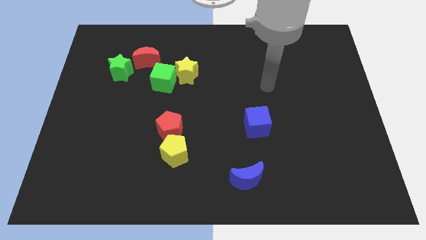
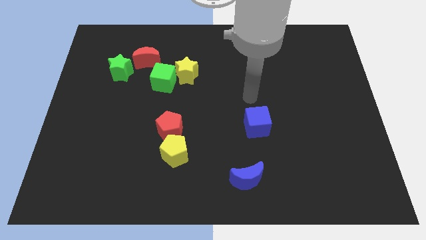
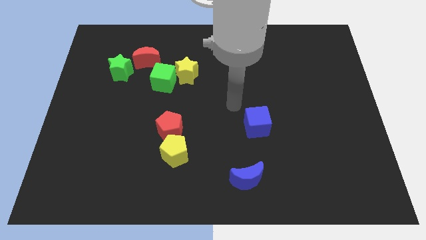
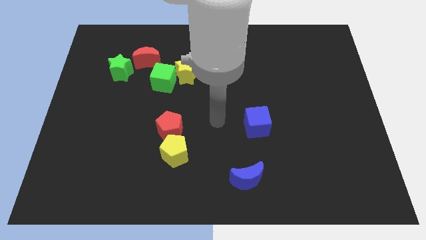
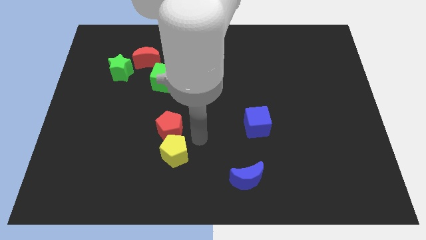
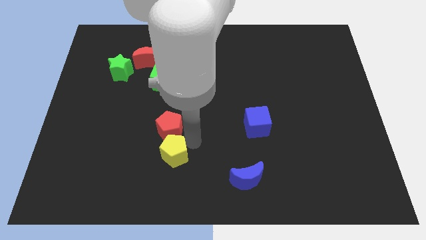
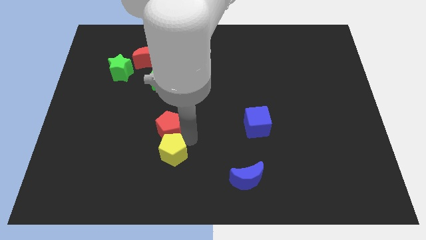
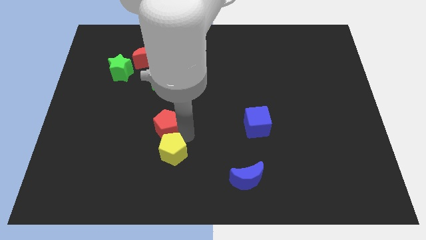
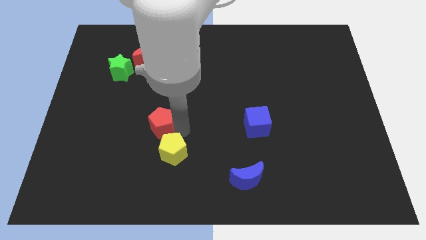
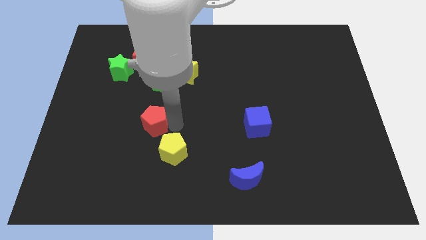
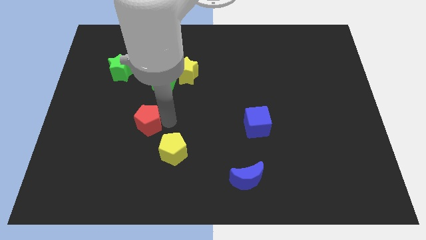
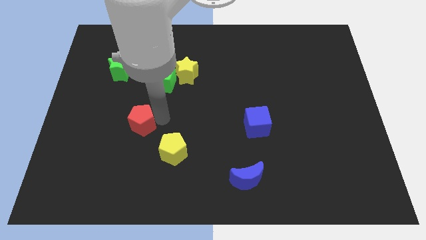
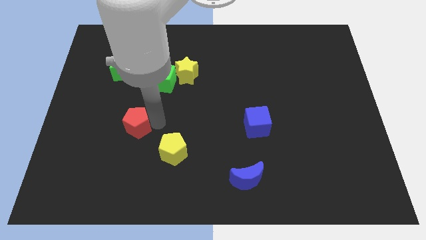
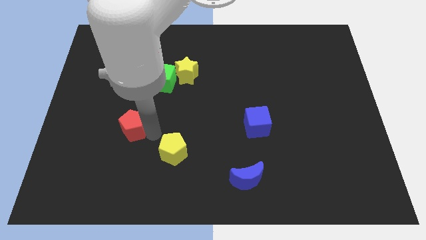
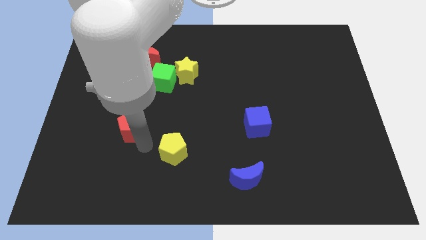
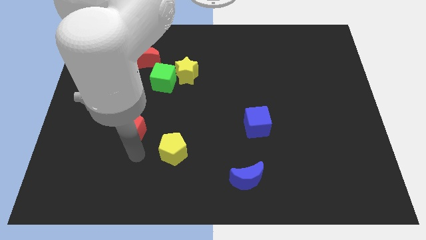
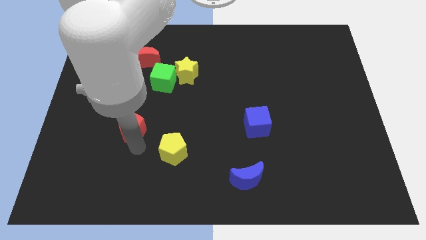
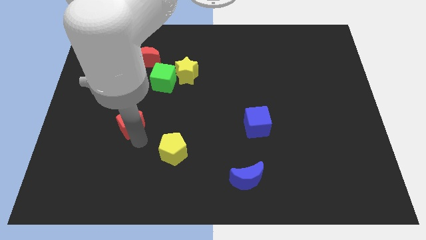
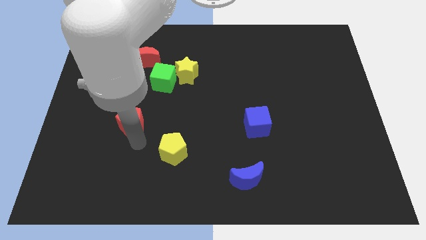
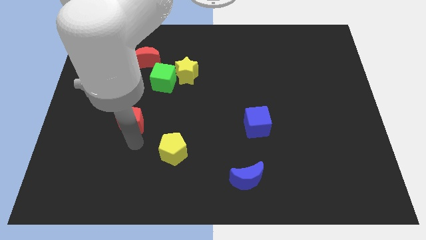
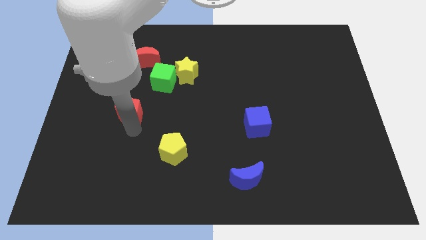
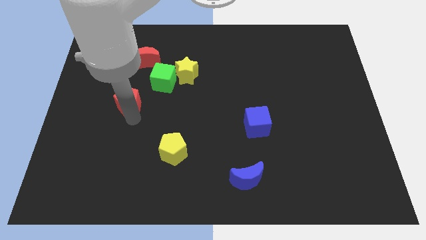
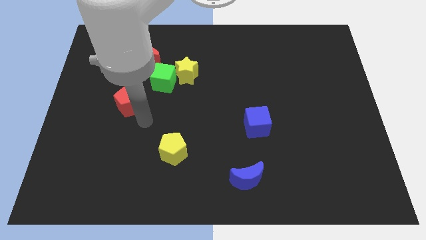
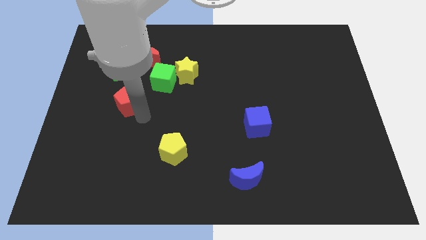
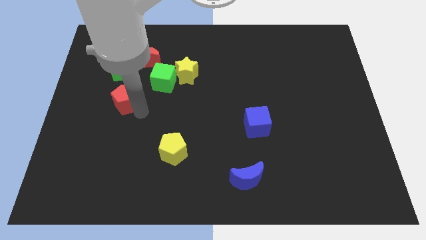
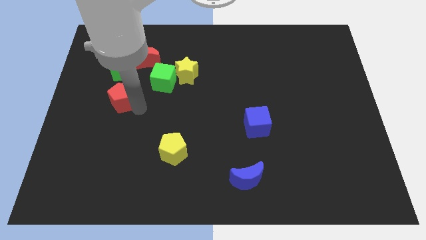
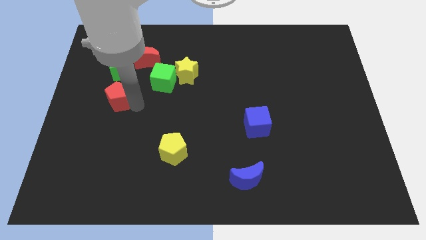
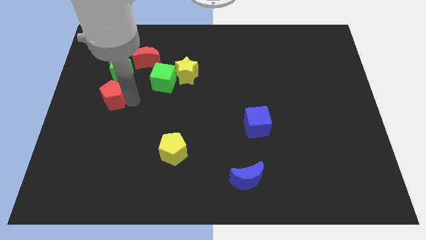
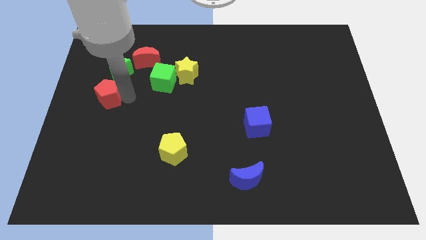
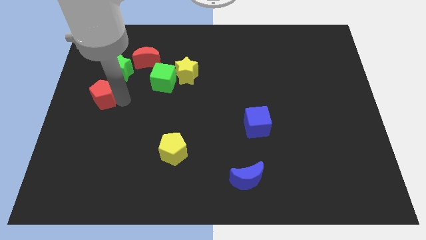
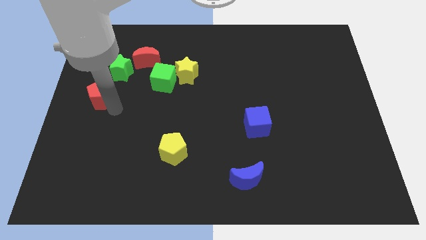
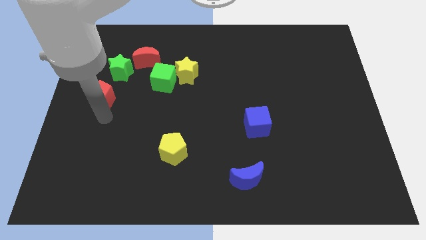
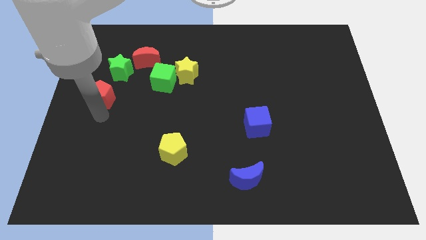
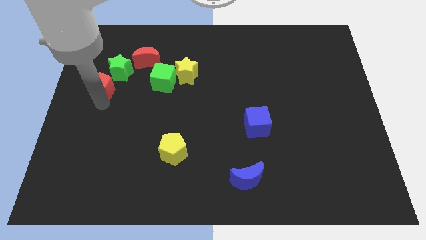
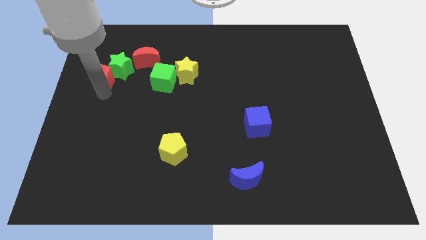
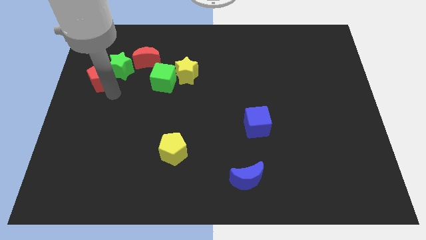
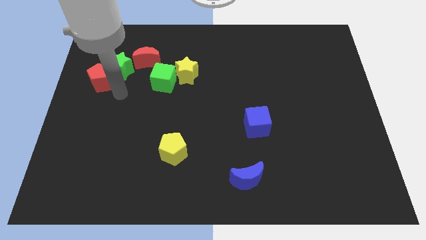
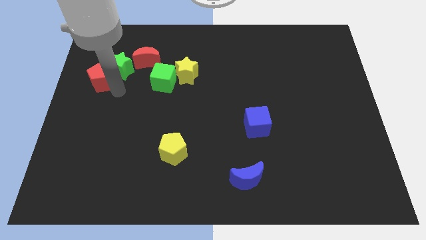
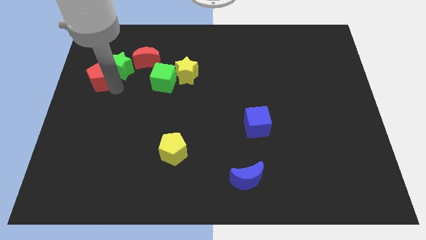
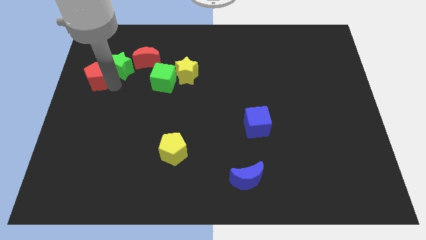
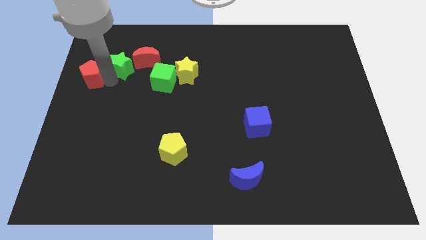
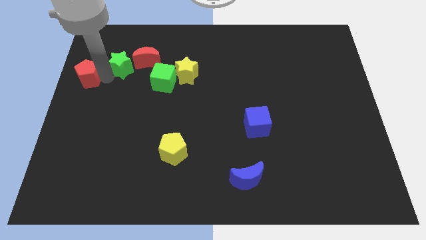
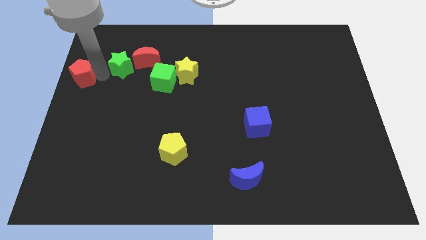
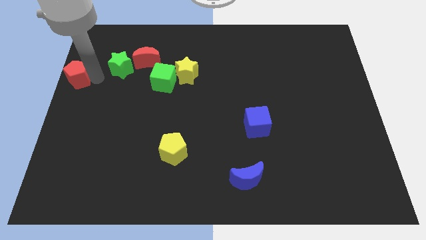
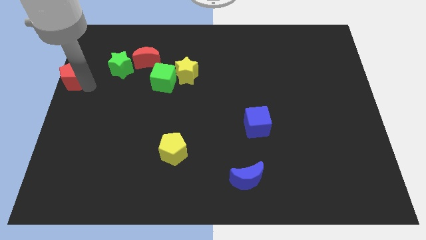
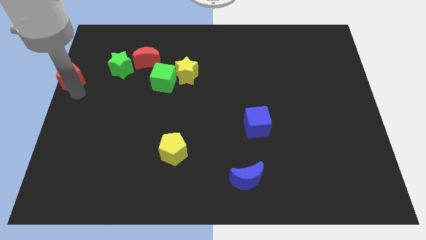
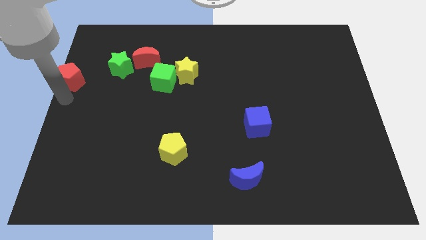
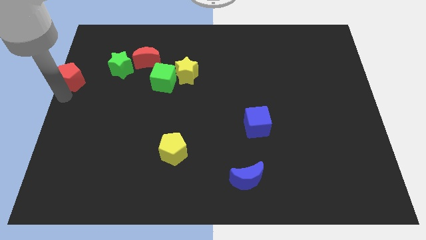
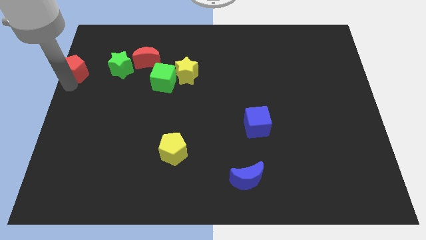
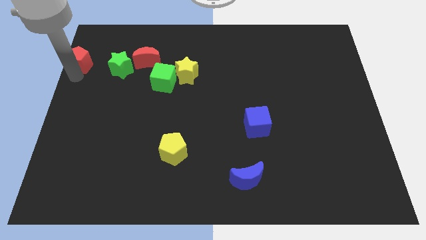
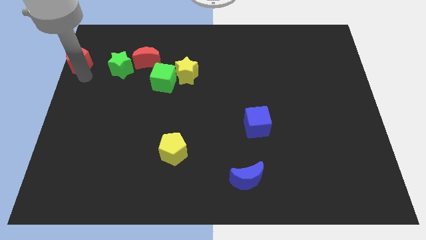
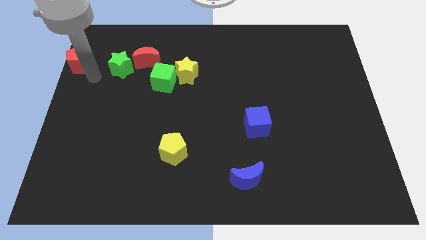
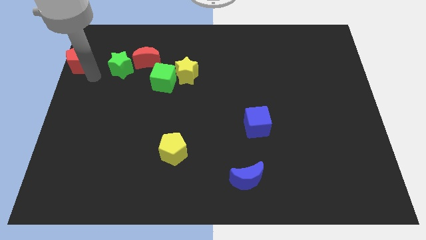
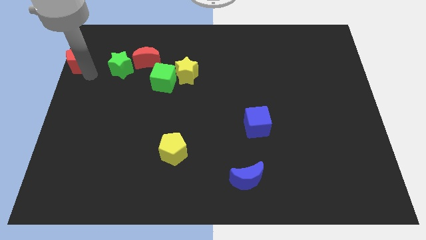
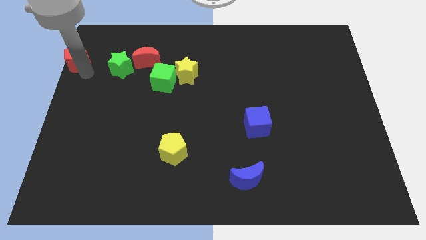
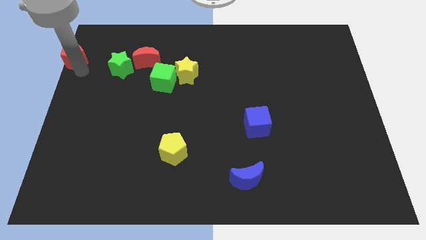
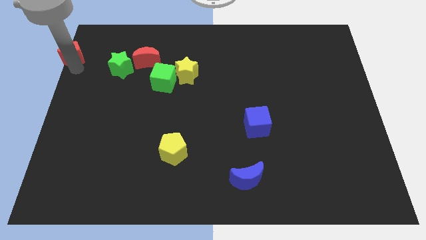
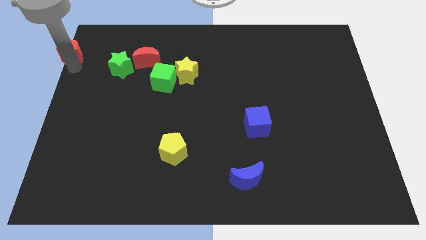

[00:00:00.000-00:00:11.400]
put the red pentagon to the top left corner
